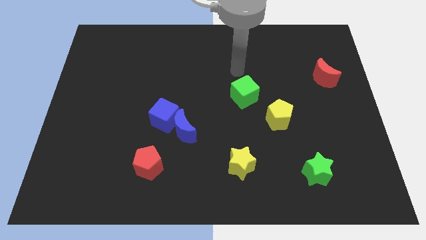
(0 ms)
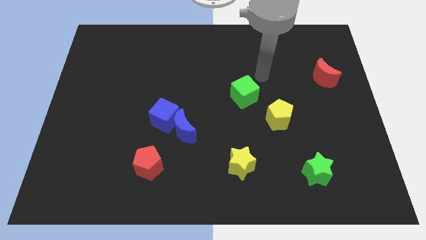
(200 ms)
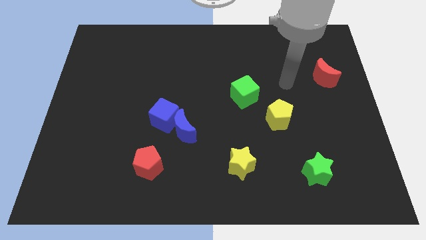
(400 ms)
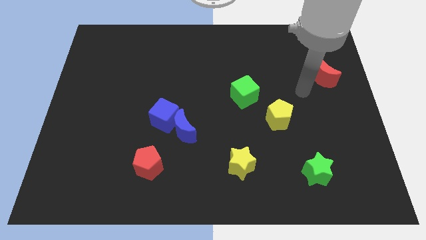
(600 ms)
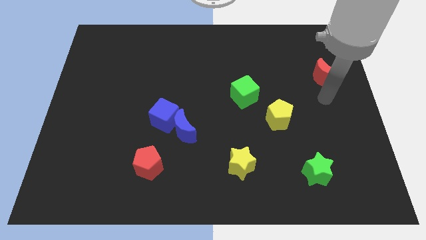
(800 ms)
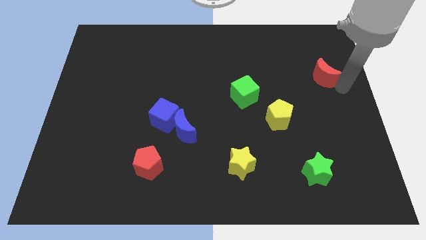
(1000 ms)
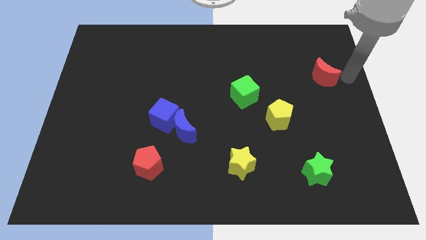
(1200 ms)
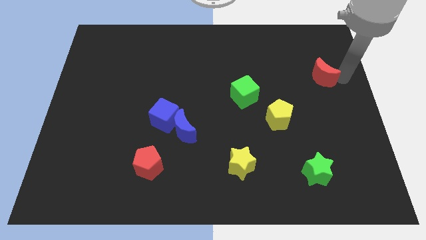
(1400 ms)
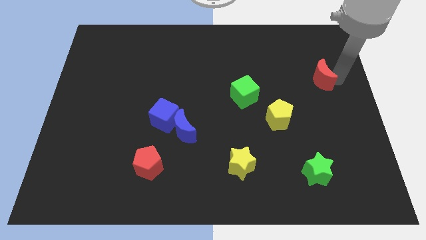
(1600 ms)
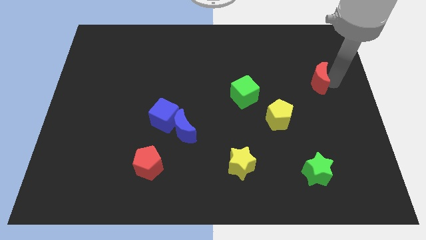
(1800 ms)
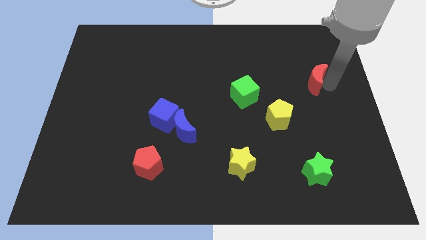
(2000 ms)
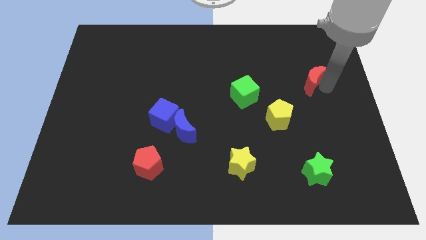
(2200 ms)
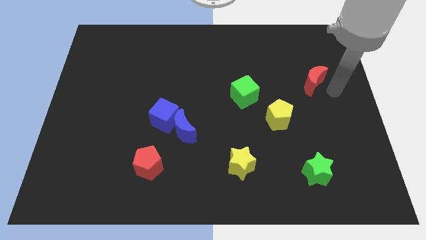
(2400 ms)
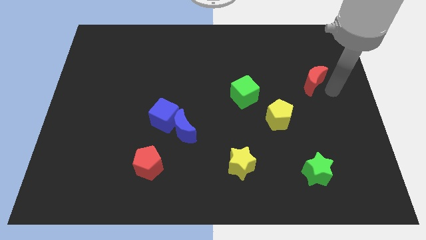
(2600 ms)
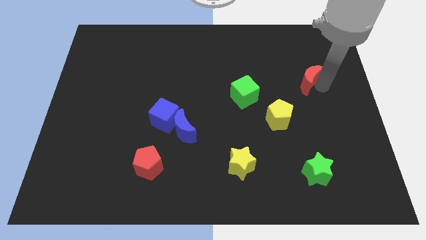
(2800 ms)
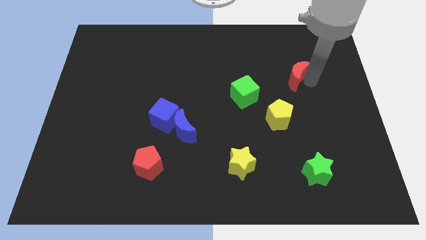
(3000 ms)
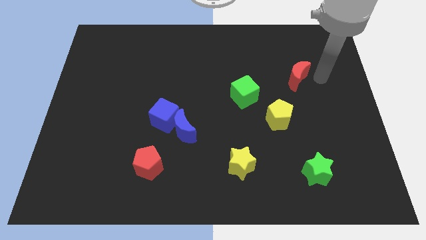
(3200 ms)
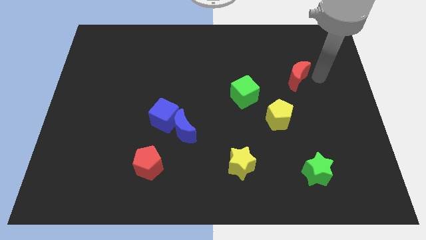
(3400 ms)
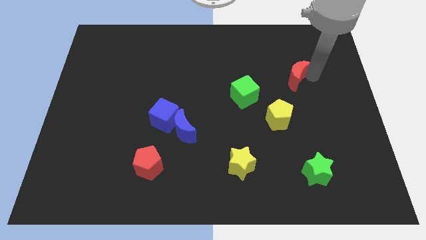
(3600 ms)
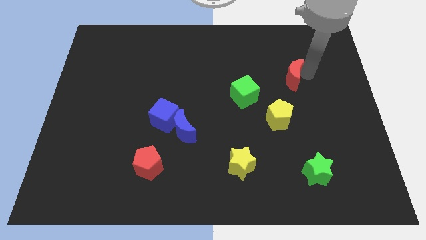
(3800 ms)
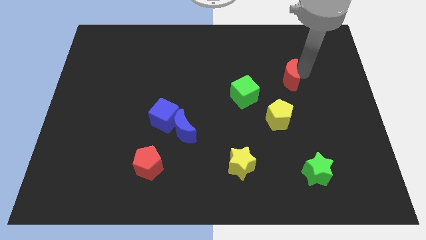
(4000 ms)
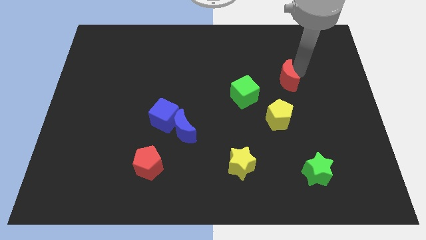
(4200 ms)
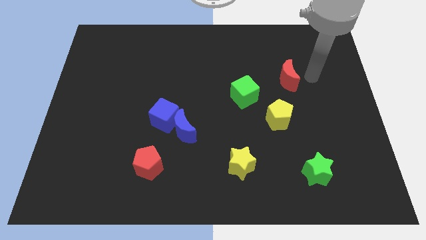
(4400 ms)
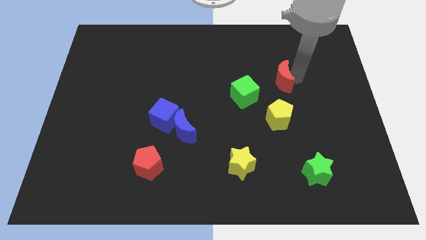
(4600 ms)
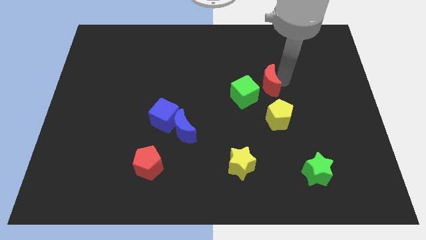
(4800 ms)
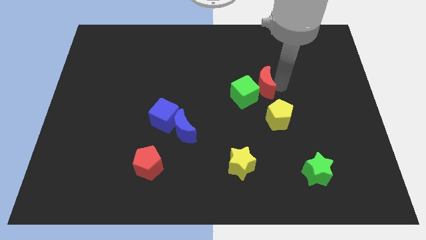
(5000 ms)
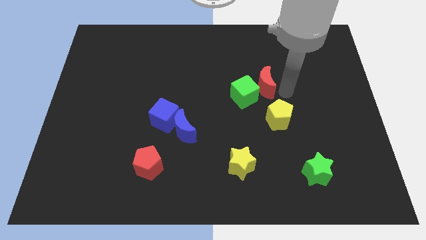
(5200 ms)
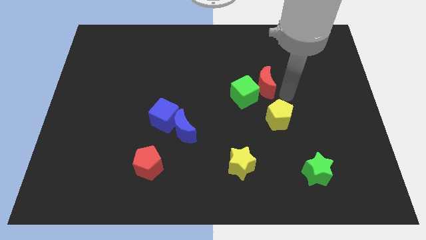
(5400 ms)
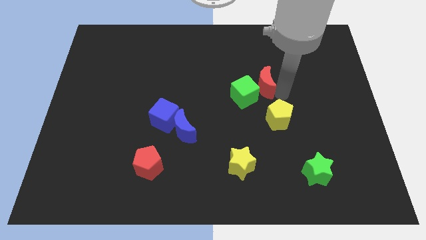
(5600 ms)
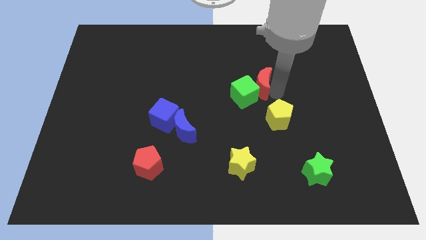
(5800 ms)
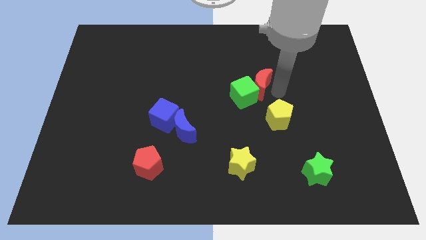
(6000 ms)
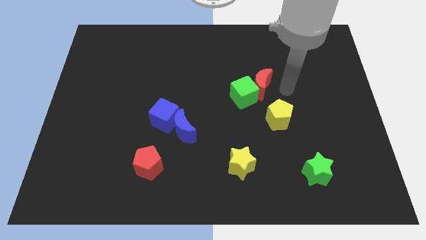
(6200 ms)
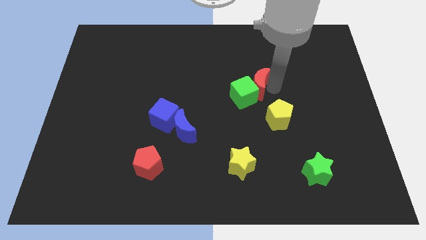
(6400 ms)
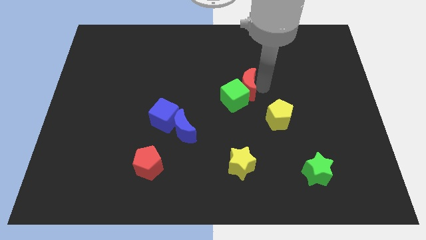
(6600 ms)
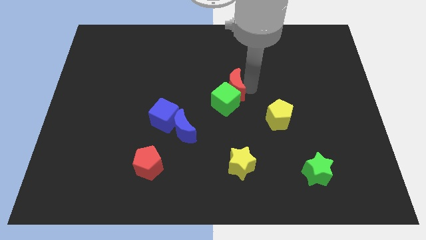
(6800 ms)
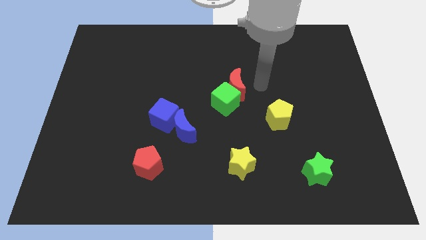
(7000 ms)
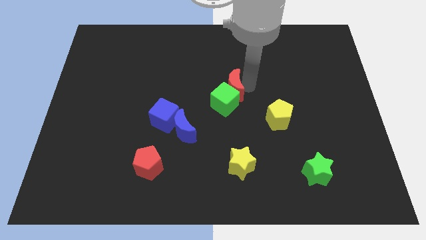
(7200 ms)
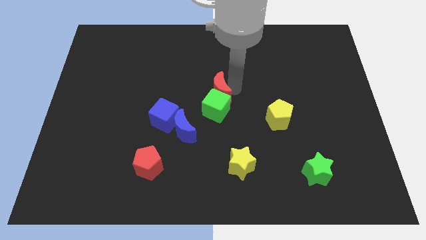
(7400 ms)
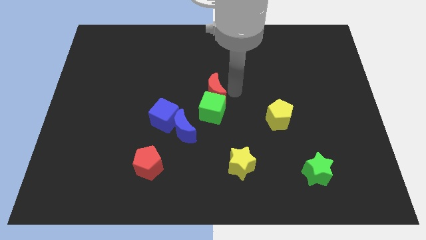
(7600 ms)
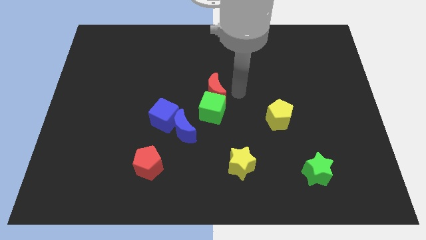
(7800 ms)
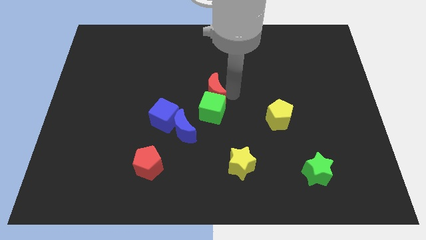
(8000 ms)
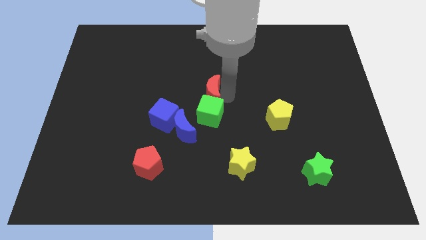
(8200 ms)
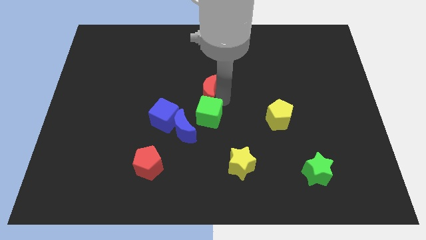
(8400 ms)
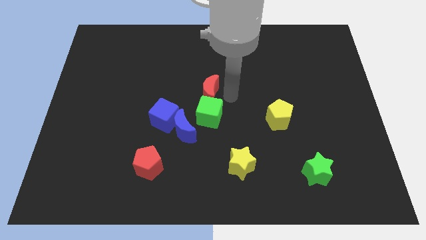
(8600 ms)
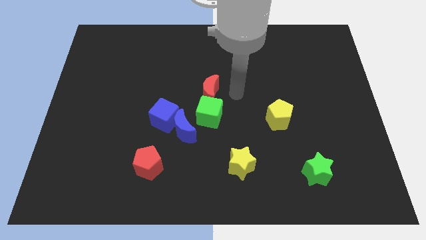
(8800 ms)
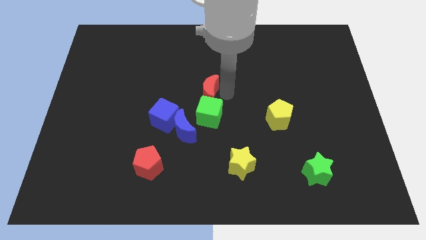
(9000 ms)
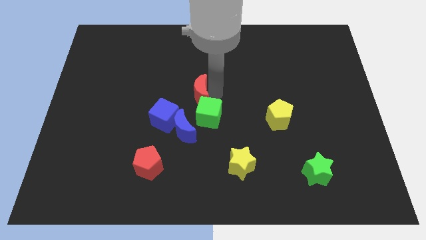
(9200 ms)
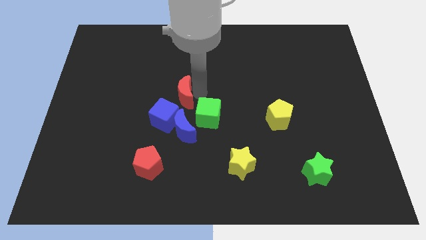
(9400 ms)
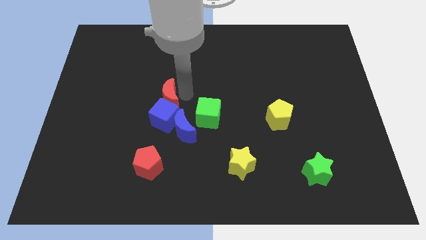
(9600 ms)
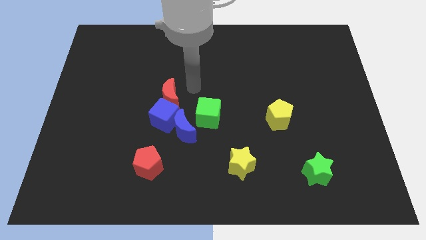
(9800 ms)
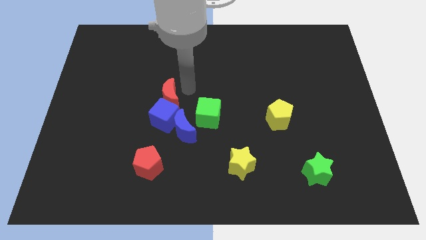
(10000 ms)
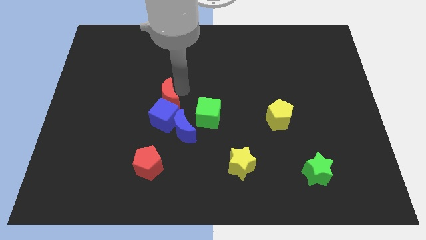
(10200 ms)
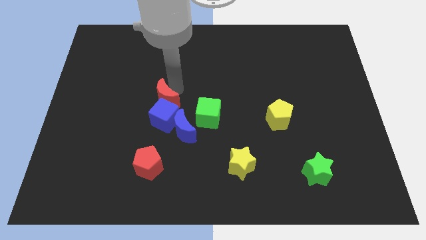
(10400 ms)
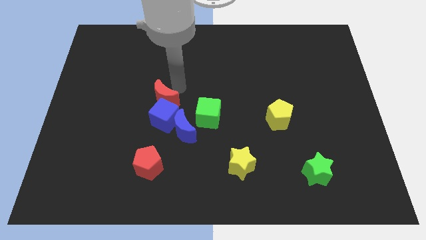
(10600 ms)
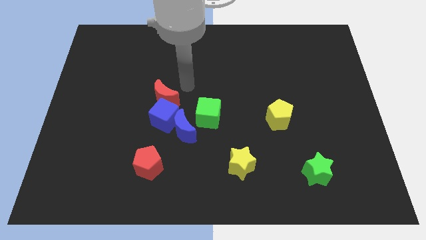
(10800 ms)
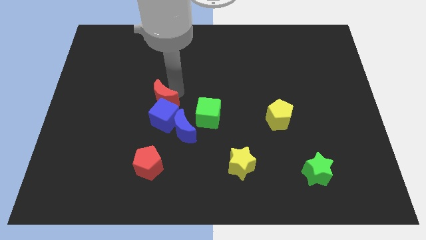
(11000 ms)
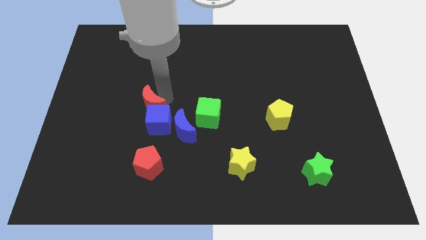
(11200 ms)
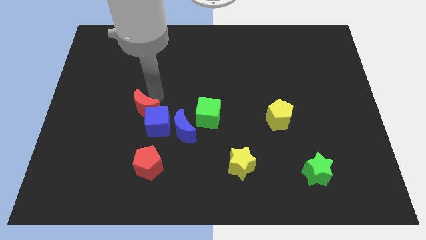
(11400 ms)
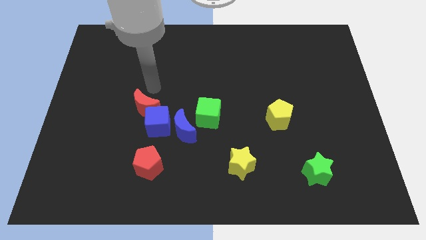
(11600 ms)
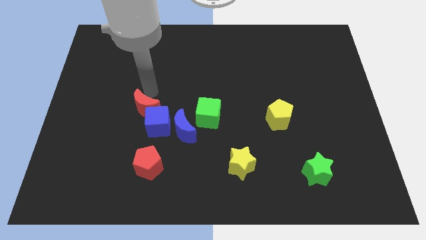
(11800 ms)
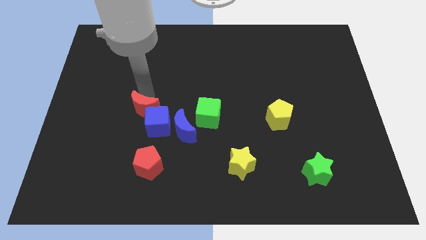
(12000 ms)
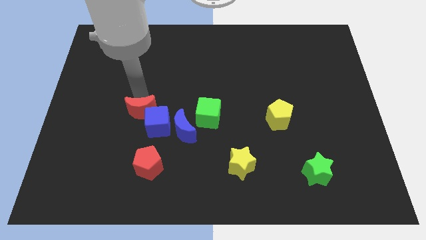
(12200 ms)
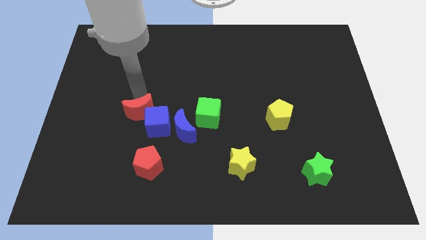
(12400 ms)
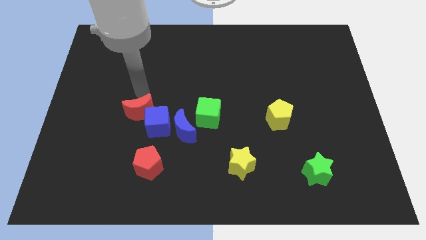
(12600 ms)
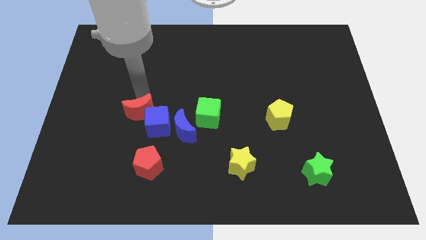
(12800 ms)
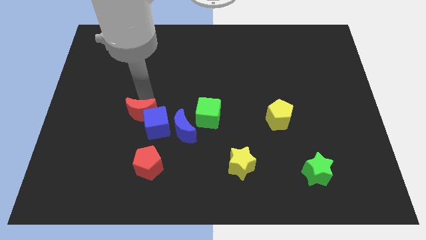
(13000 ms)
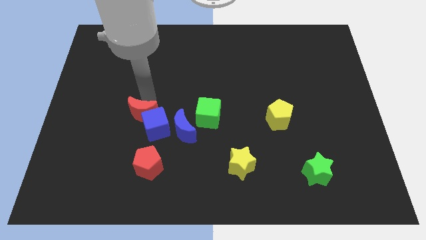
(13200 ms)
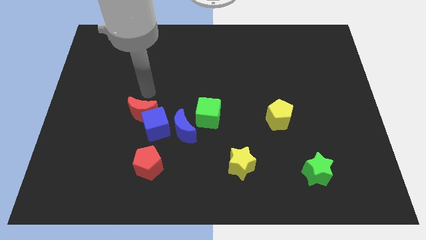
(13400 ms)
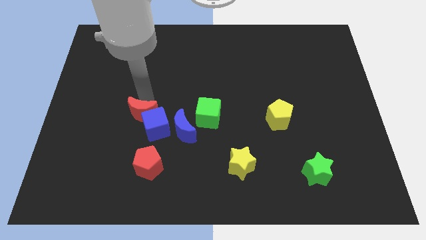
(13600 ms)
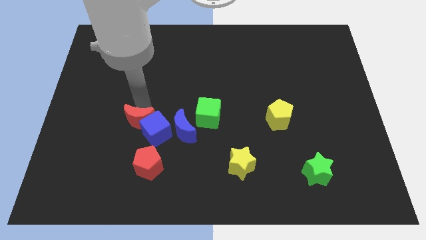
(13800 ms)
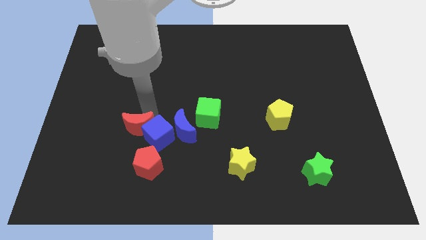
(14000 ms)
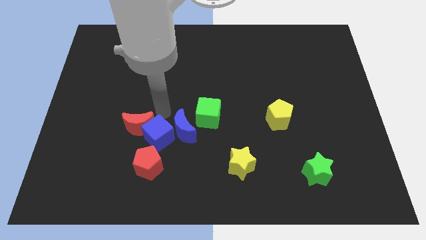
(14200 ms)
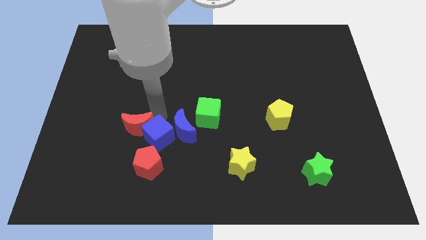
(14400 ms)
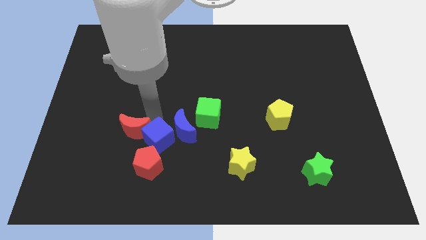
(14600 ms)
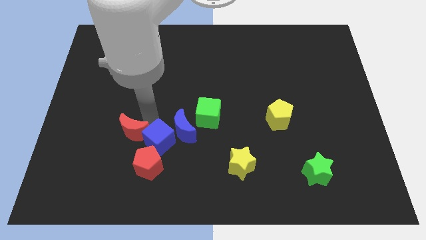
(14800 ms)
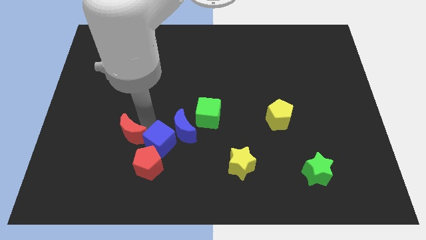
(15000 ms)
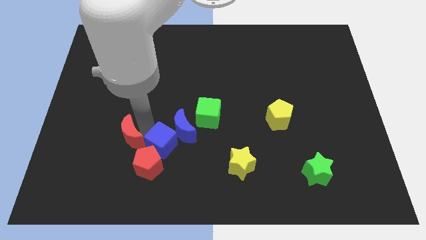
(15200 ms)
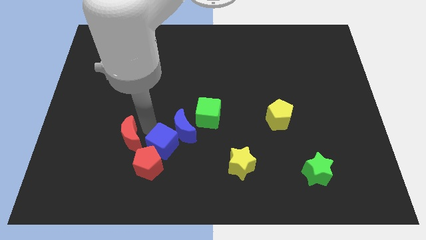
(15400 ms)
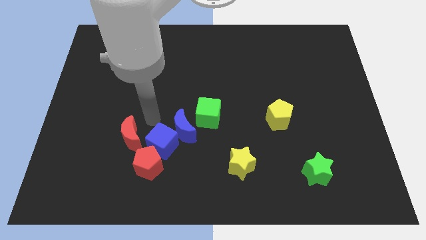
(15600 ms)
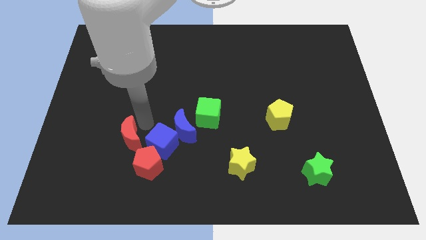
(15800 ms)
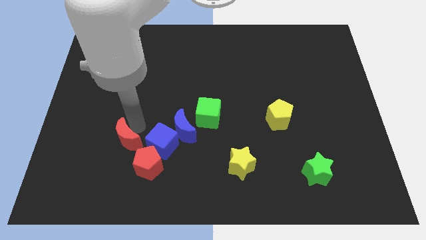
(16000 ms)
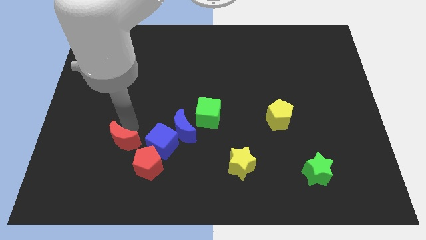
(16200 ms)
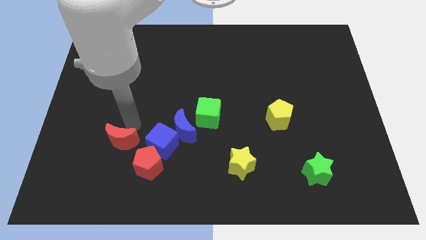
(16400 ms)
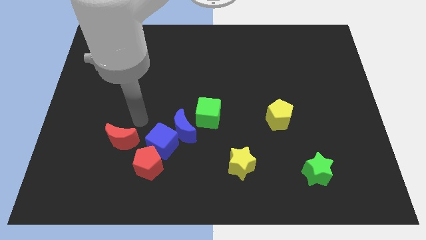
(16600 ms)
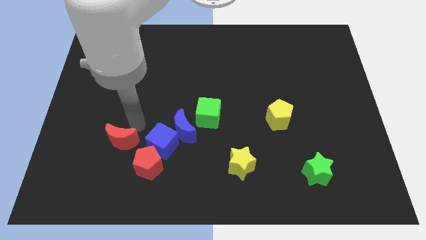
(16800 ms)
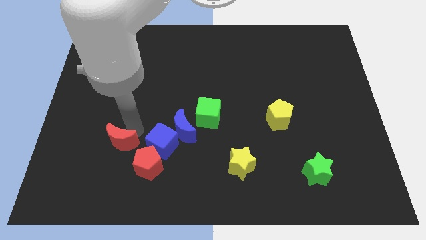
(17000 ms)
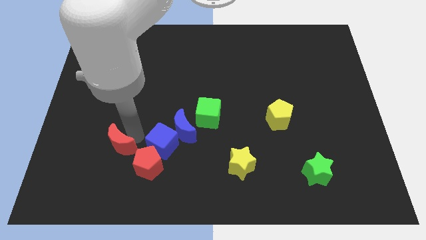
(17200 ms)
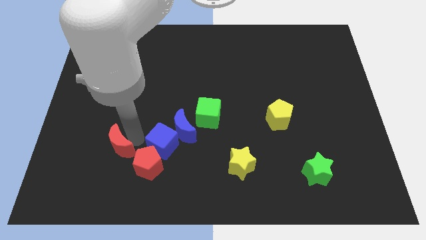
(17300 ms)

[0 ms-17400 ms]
slide the red moon left of the red pentagon
